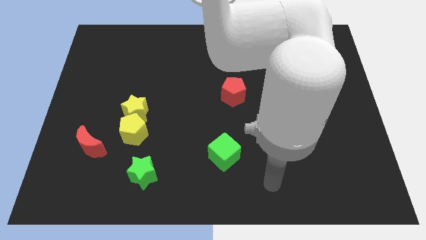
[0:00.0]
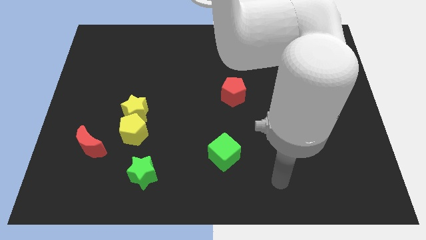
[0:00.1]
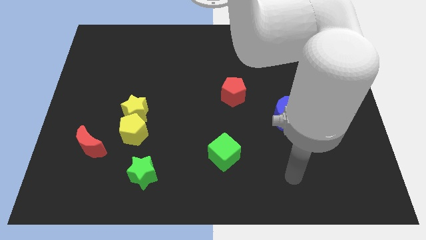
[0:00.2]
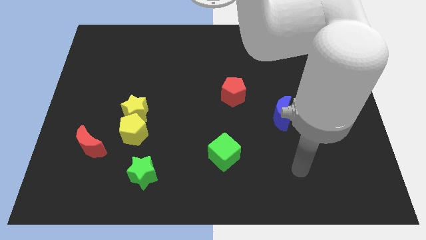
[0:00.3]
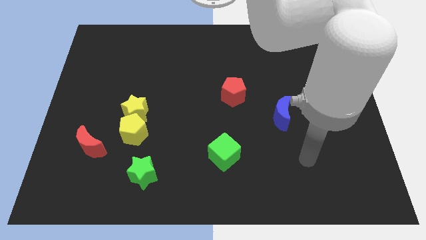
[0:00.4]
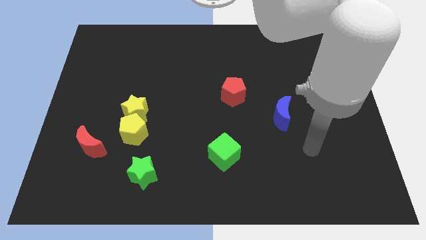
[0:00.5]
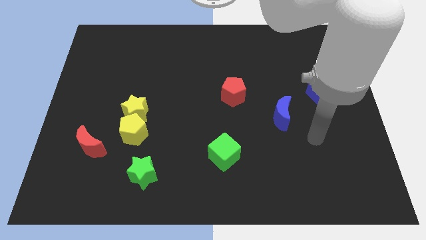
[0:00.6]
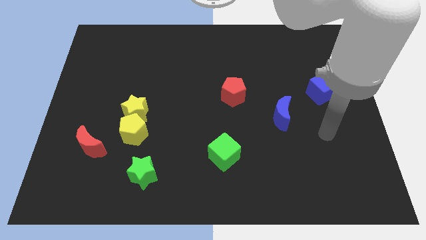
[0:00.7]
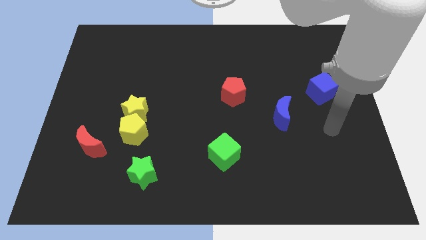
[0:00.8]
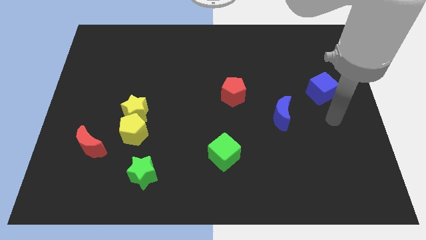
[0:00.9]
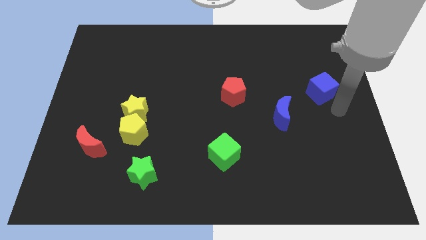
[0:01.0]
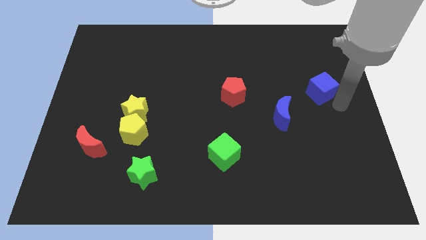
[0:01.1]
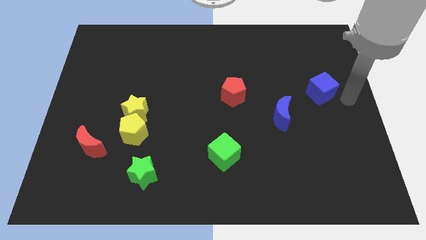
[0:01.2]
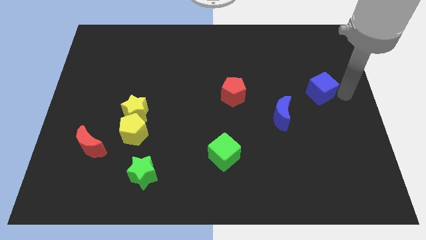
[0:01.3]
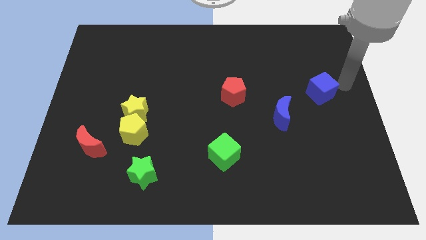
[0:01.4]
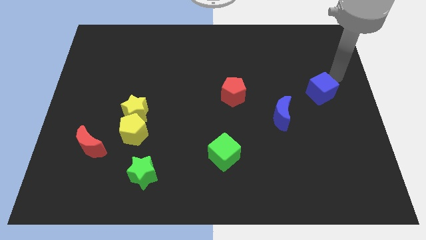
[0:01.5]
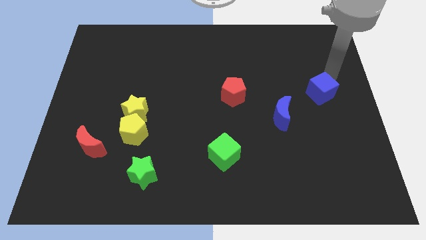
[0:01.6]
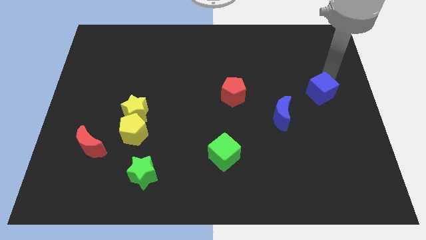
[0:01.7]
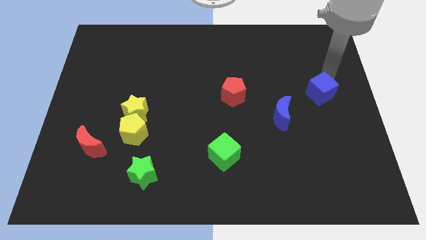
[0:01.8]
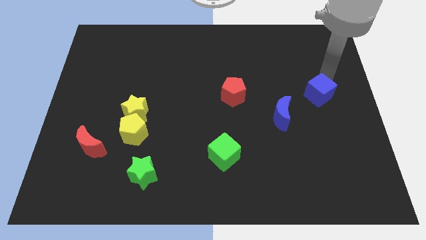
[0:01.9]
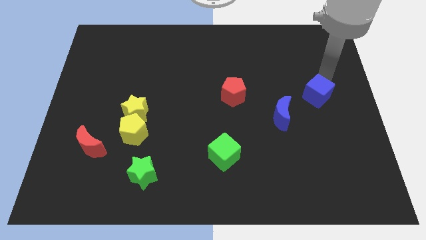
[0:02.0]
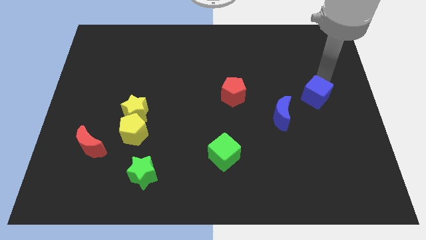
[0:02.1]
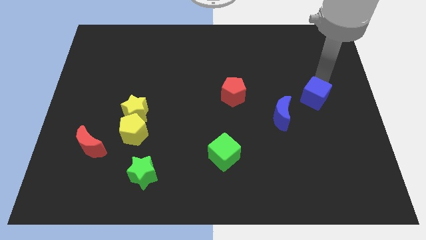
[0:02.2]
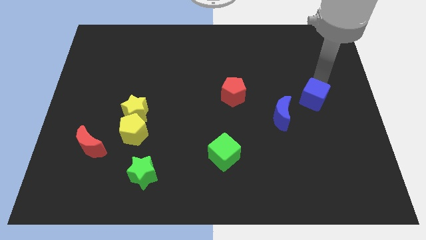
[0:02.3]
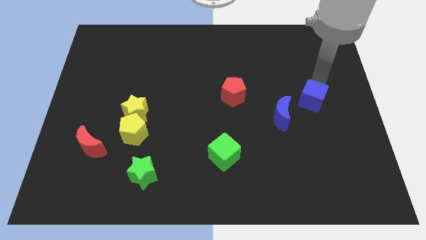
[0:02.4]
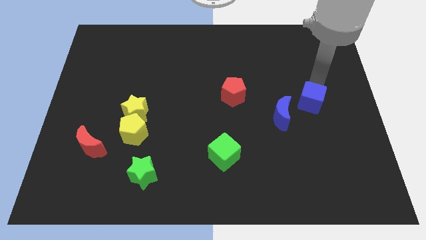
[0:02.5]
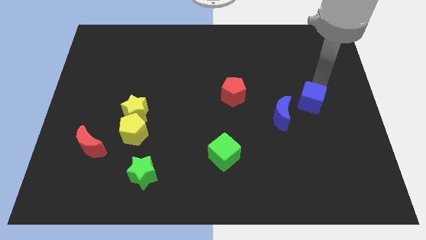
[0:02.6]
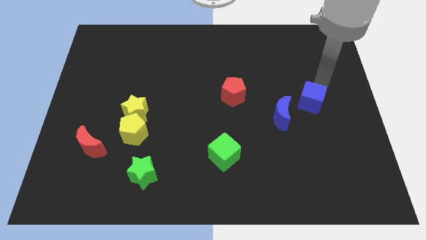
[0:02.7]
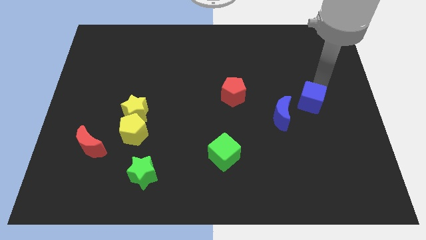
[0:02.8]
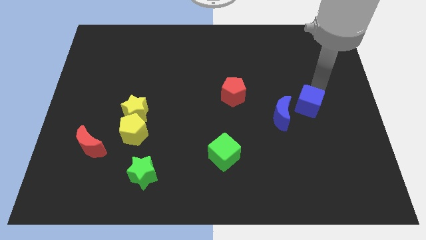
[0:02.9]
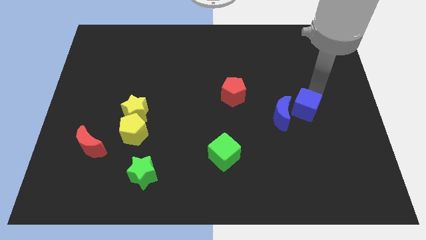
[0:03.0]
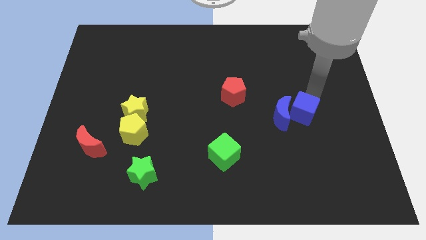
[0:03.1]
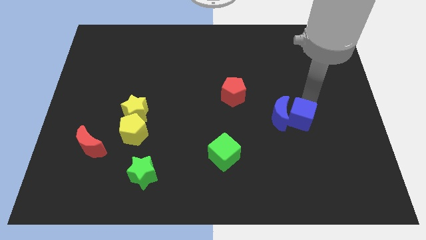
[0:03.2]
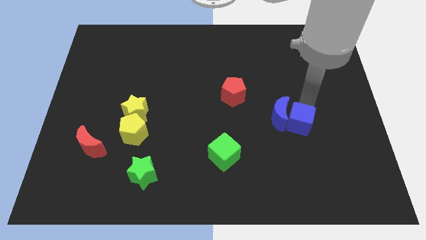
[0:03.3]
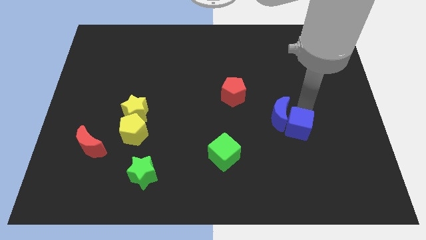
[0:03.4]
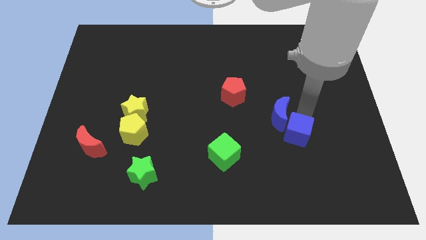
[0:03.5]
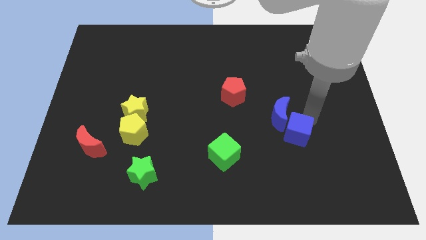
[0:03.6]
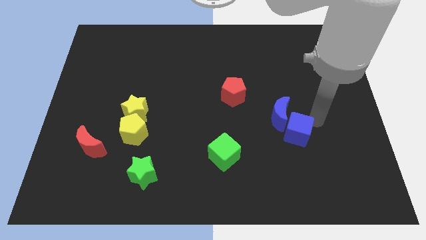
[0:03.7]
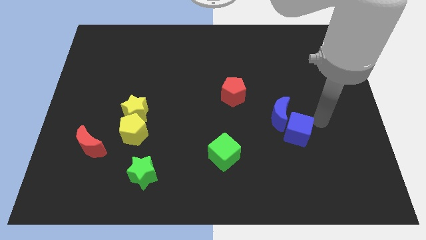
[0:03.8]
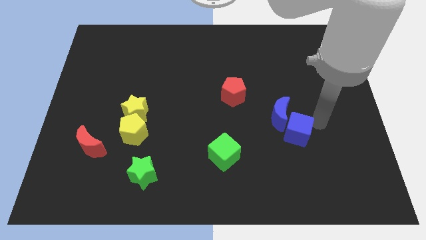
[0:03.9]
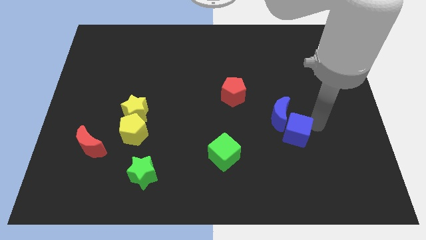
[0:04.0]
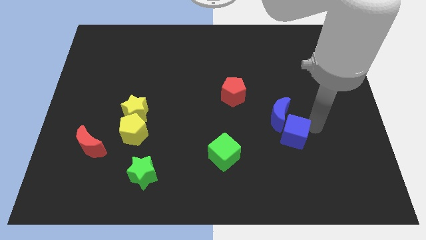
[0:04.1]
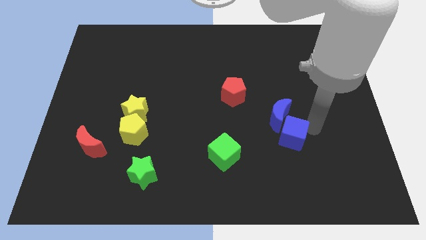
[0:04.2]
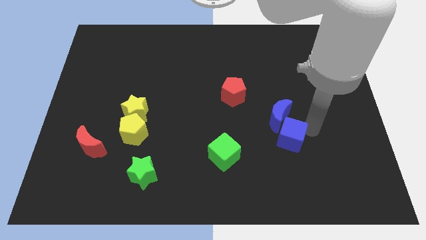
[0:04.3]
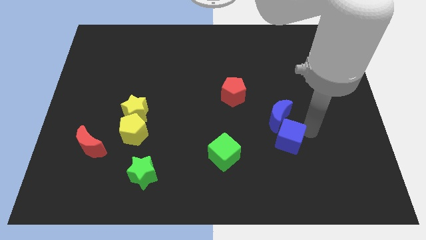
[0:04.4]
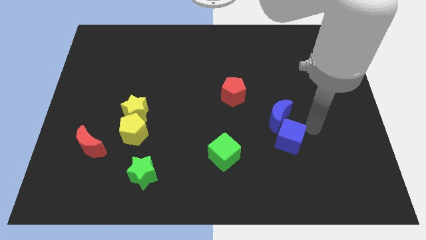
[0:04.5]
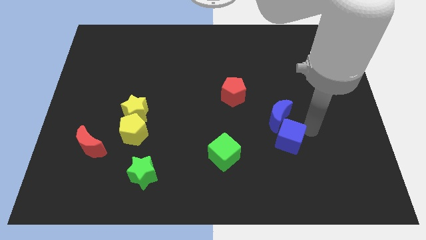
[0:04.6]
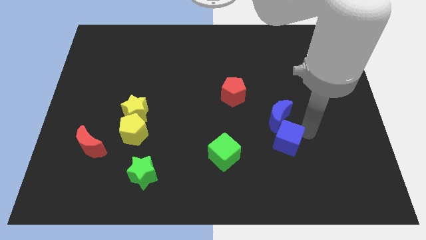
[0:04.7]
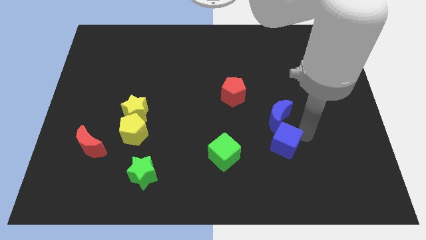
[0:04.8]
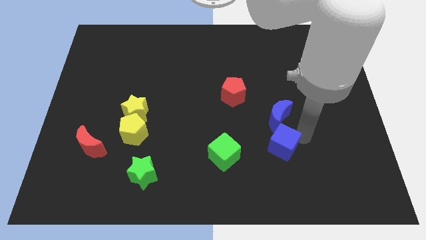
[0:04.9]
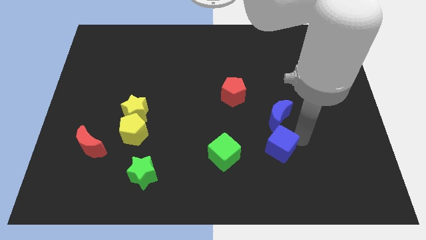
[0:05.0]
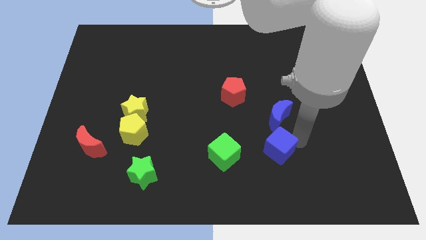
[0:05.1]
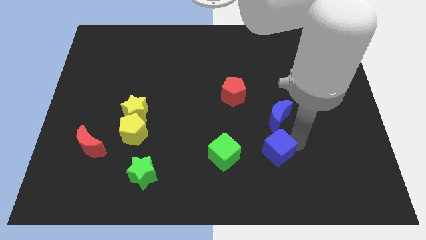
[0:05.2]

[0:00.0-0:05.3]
push the blue cube downwards and left diagonally

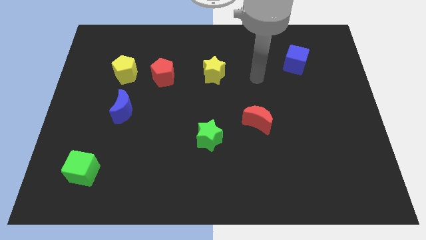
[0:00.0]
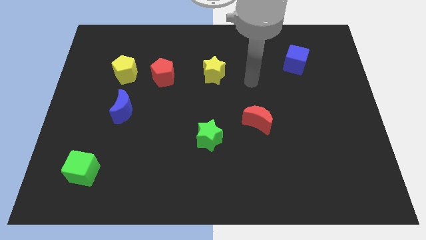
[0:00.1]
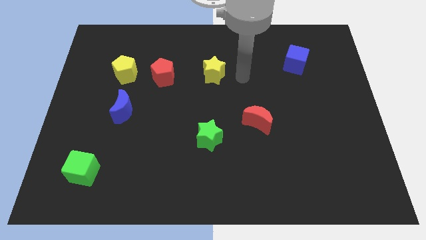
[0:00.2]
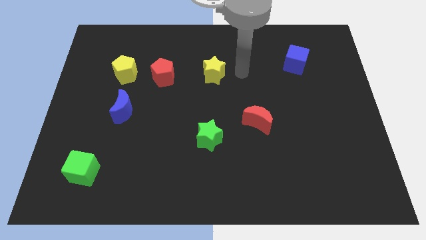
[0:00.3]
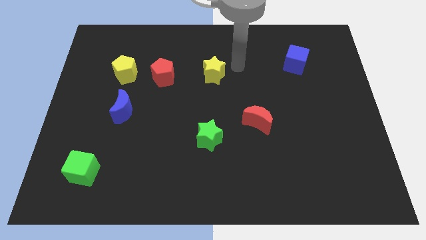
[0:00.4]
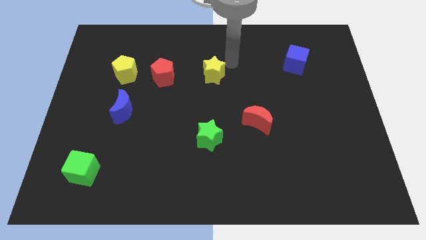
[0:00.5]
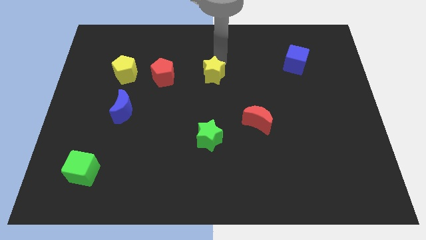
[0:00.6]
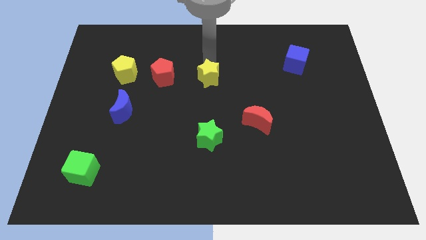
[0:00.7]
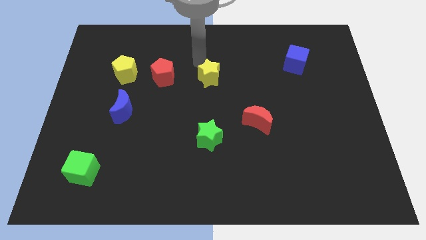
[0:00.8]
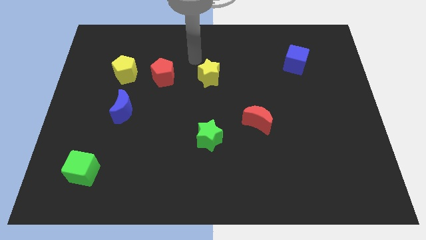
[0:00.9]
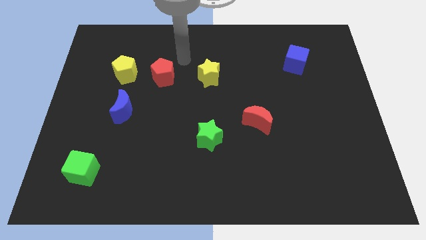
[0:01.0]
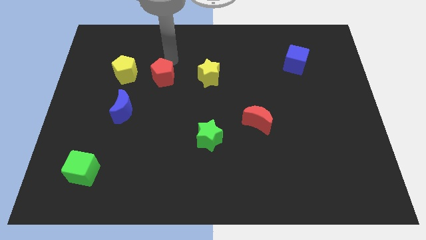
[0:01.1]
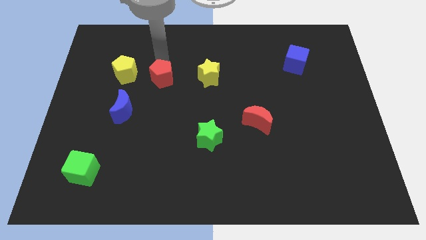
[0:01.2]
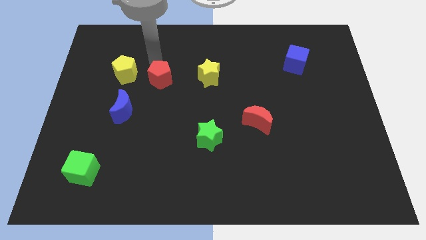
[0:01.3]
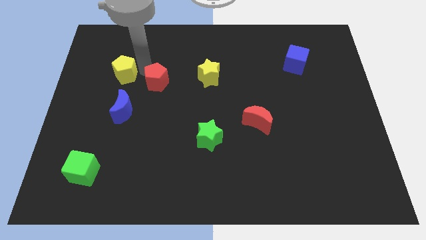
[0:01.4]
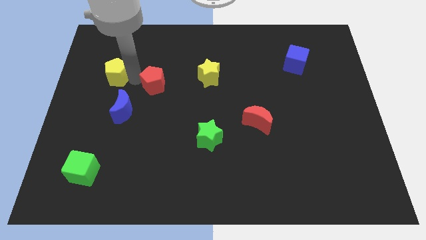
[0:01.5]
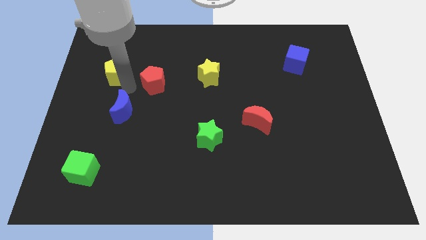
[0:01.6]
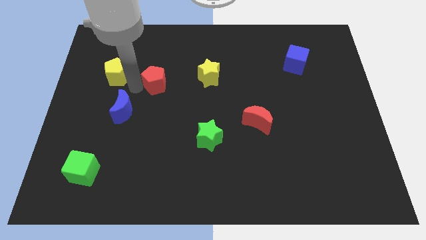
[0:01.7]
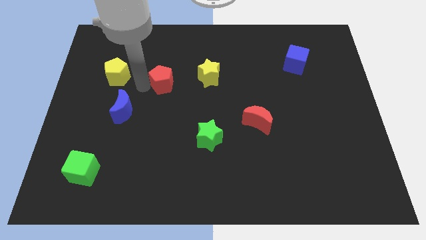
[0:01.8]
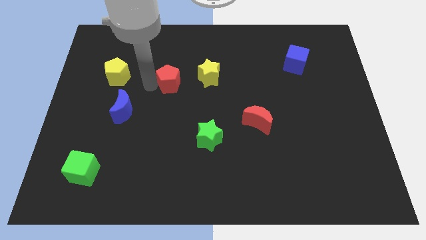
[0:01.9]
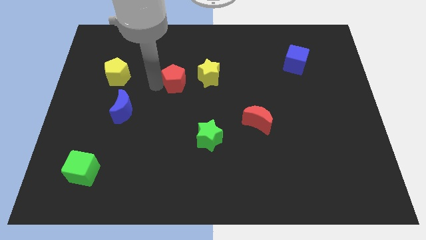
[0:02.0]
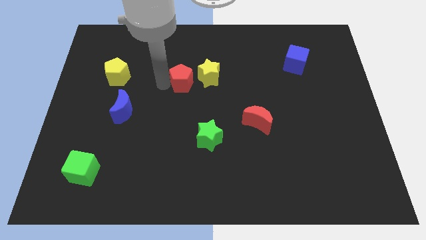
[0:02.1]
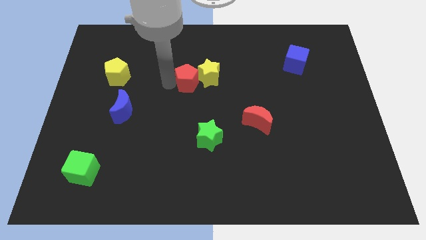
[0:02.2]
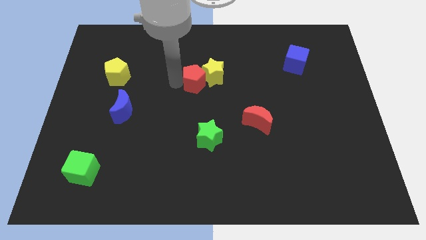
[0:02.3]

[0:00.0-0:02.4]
slightly push the red pentagon to the right

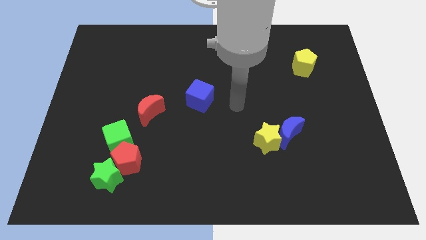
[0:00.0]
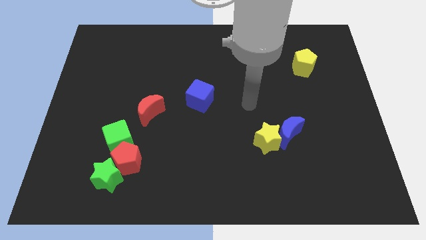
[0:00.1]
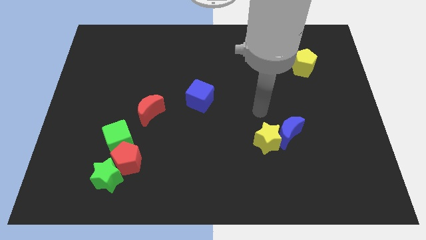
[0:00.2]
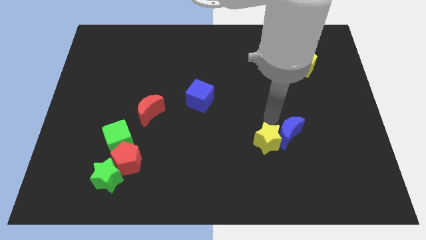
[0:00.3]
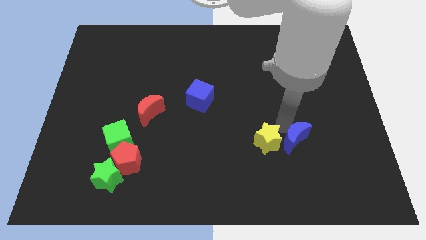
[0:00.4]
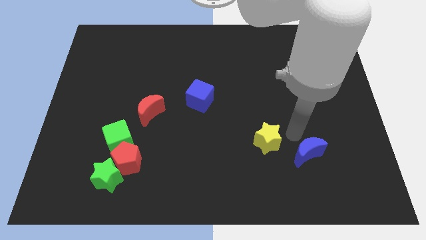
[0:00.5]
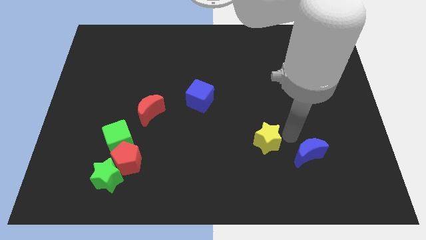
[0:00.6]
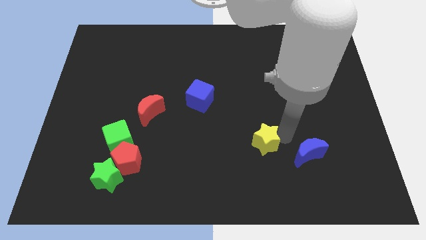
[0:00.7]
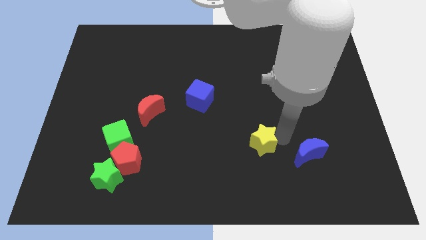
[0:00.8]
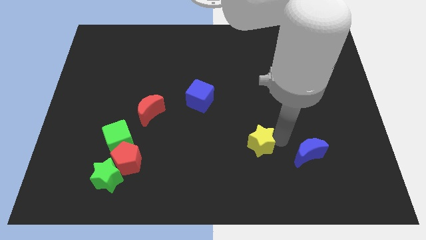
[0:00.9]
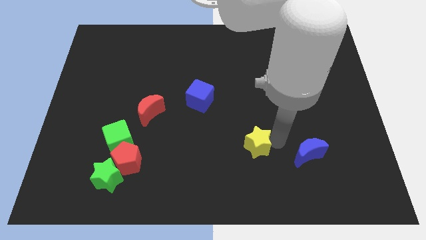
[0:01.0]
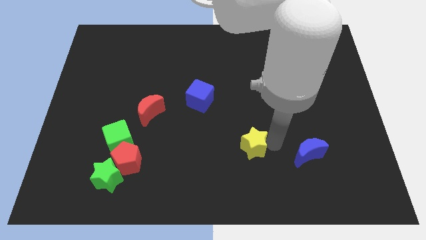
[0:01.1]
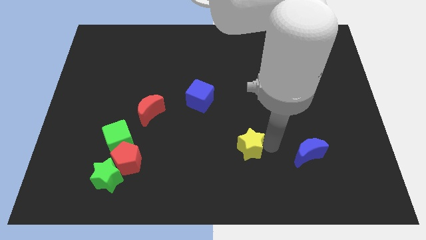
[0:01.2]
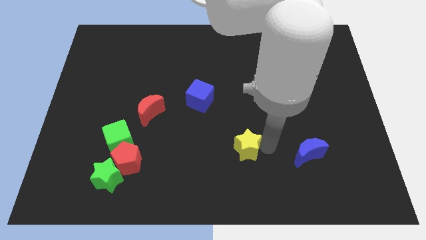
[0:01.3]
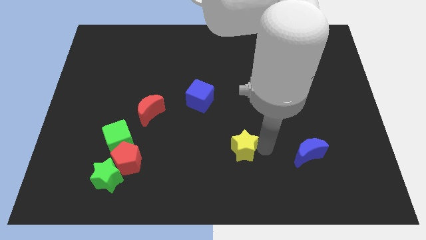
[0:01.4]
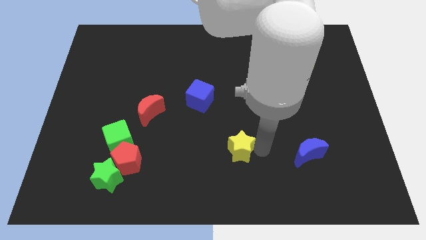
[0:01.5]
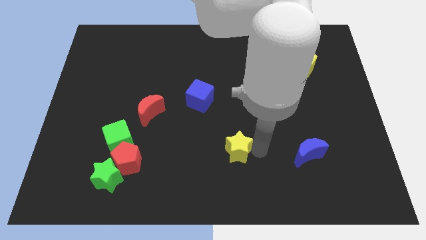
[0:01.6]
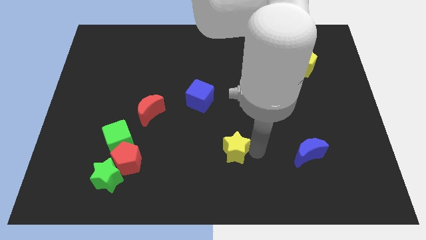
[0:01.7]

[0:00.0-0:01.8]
slightly slide the yellow star to the left
